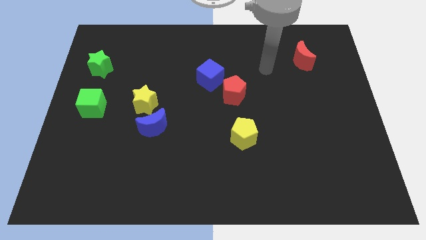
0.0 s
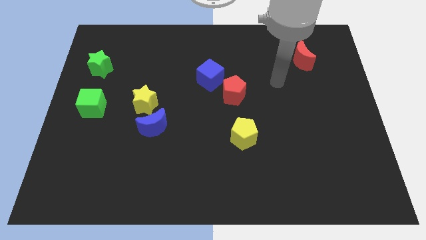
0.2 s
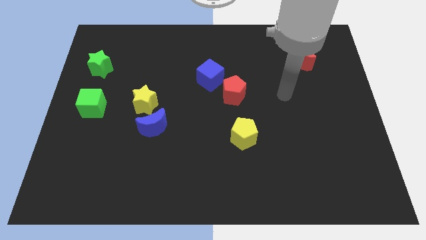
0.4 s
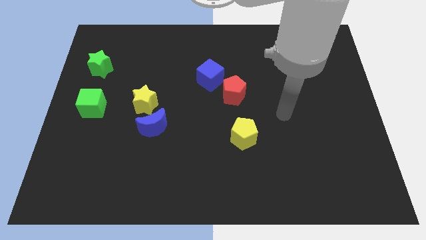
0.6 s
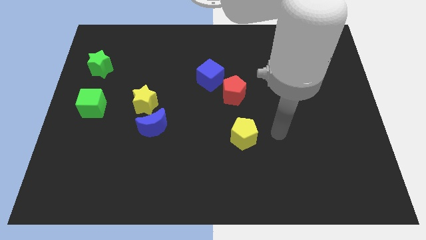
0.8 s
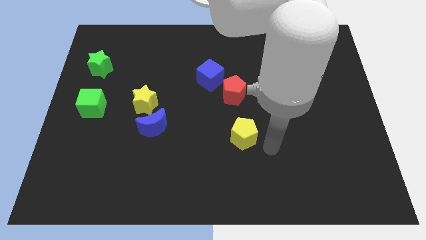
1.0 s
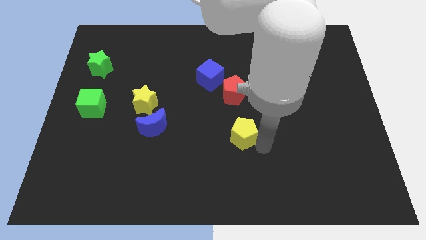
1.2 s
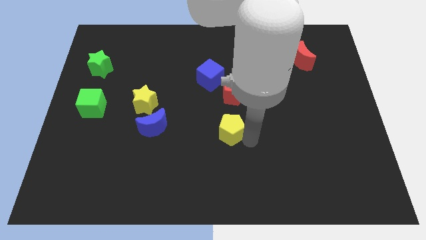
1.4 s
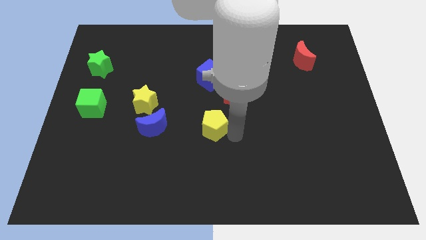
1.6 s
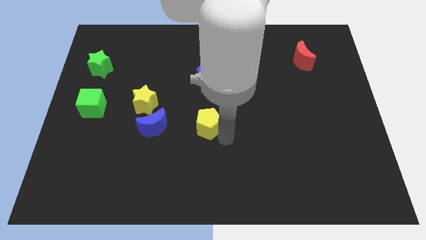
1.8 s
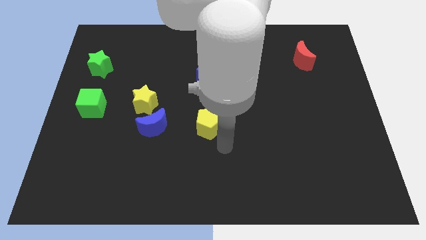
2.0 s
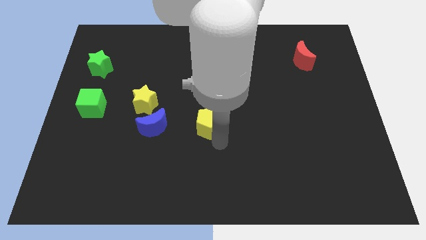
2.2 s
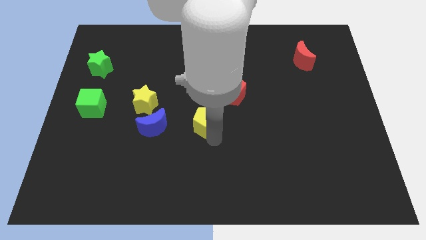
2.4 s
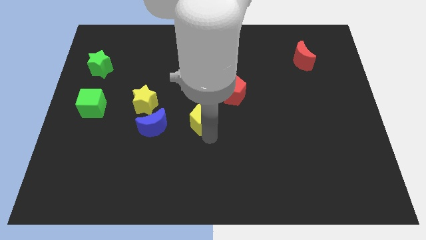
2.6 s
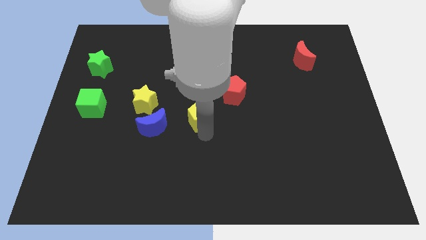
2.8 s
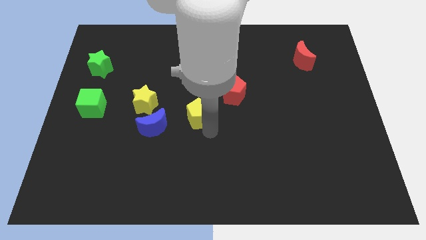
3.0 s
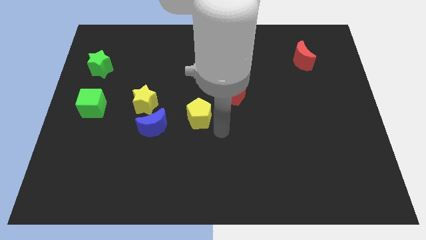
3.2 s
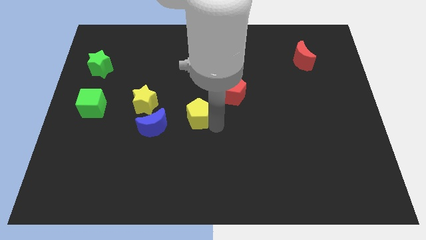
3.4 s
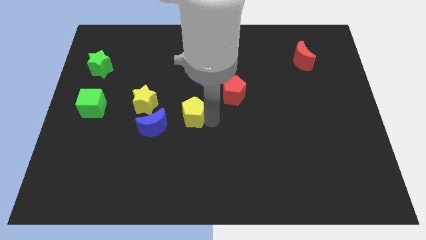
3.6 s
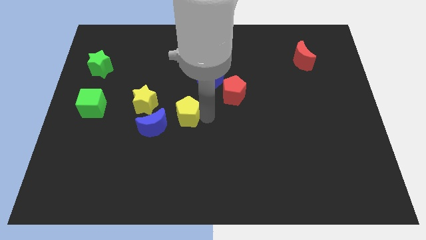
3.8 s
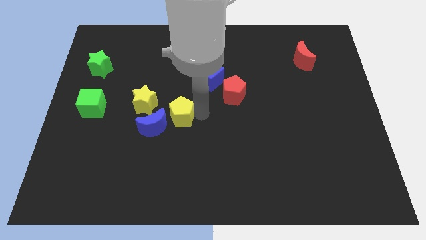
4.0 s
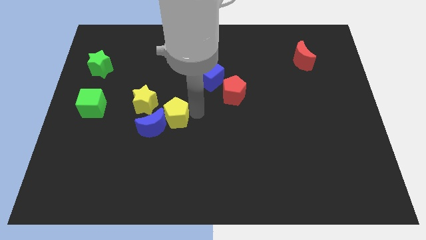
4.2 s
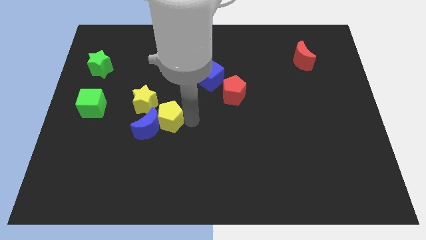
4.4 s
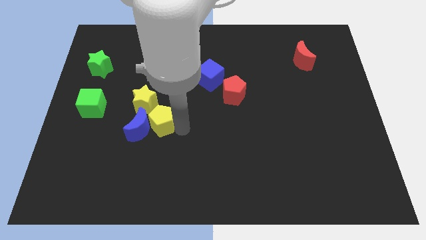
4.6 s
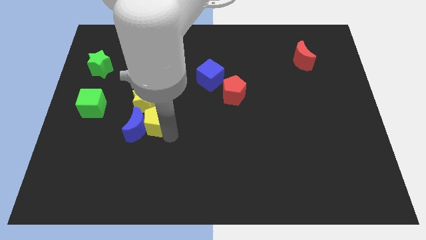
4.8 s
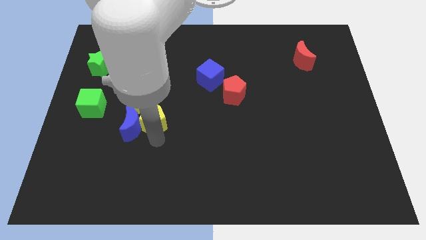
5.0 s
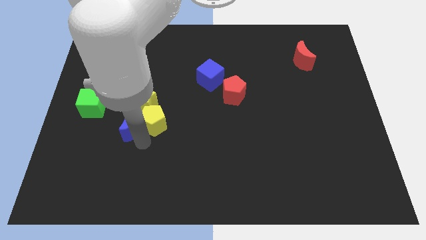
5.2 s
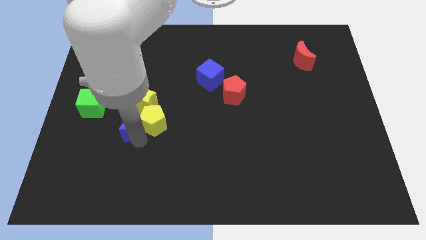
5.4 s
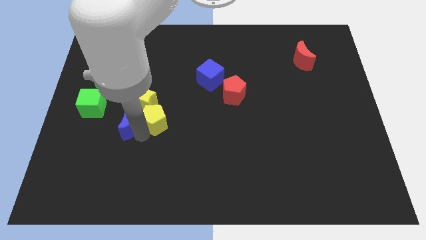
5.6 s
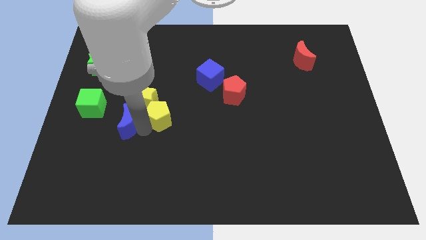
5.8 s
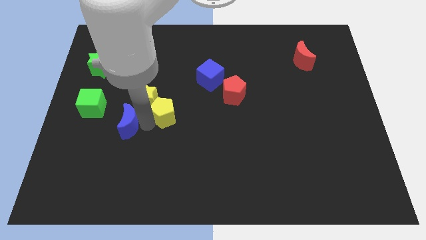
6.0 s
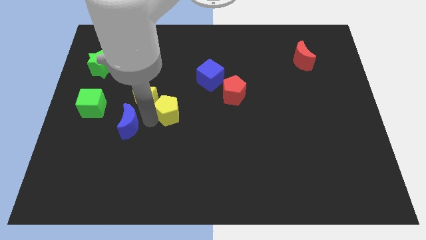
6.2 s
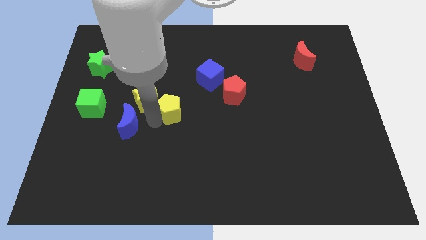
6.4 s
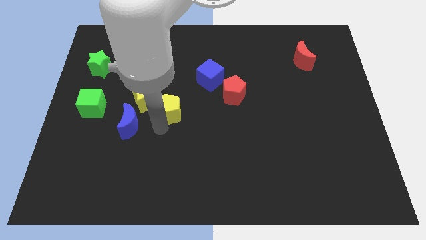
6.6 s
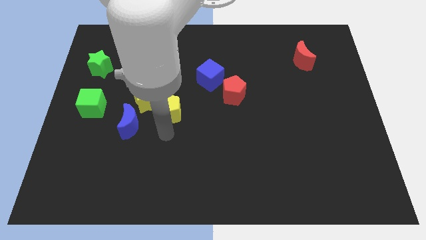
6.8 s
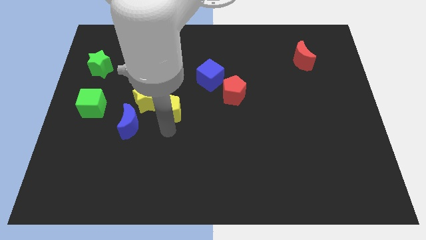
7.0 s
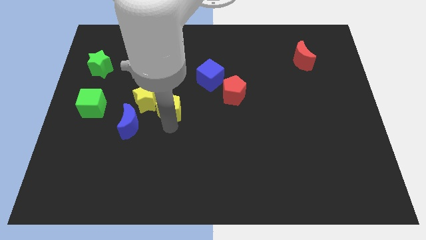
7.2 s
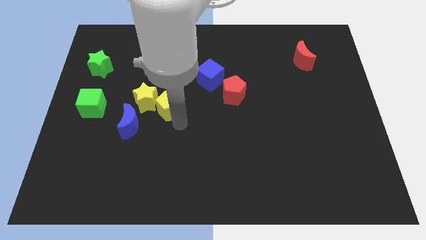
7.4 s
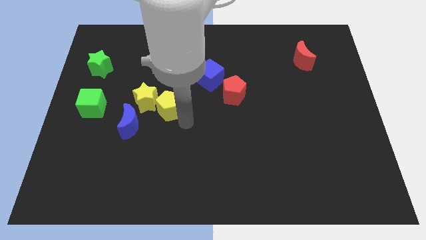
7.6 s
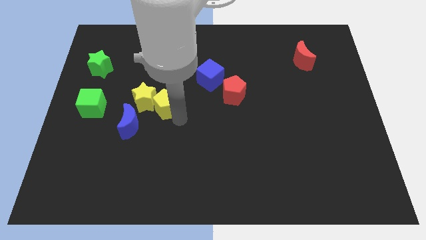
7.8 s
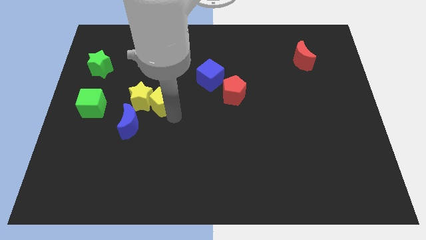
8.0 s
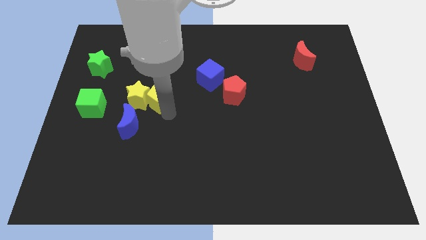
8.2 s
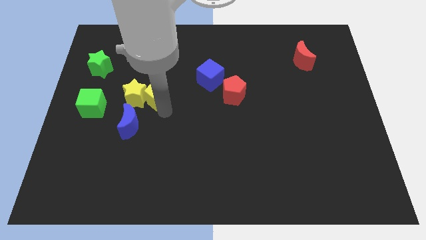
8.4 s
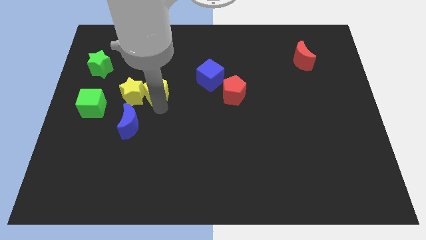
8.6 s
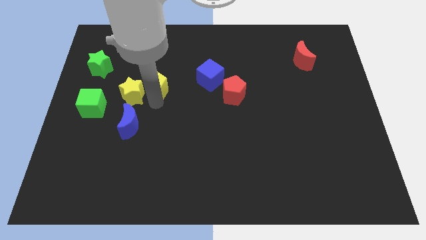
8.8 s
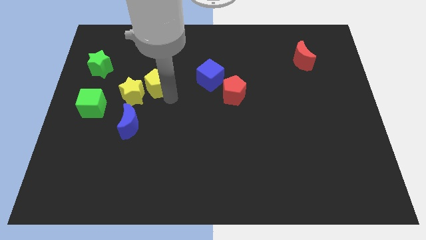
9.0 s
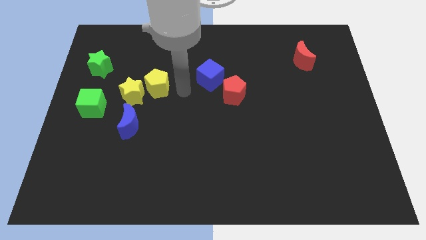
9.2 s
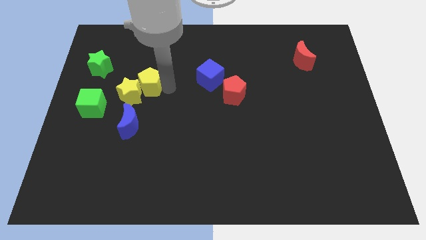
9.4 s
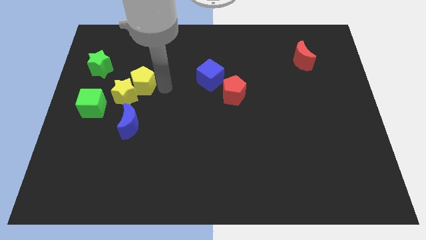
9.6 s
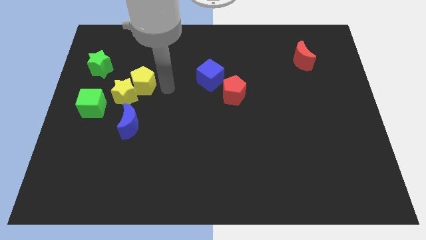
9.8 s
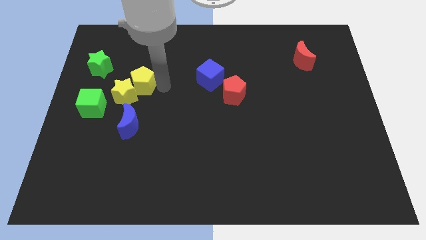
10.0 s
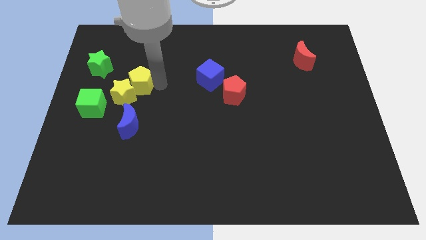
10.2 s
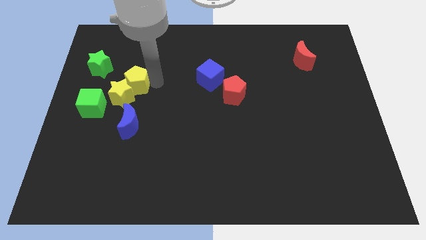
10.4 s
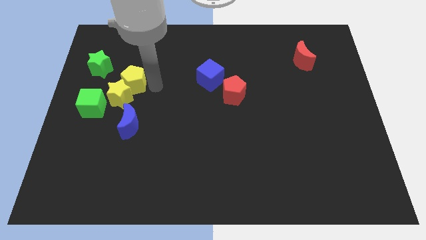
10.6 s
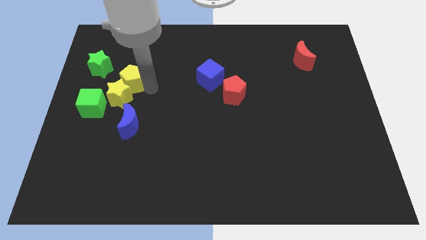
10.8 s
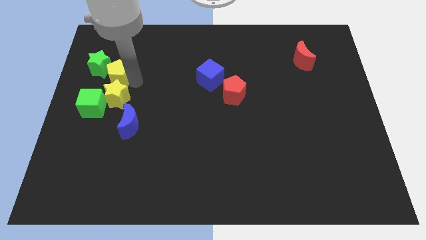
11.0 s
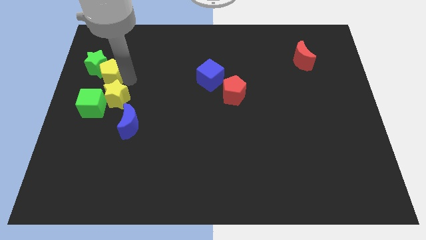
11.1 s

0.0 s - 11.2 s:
put the yellow pentagon next to the green star

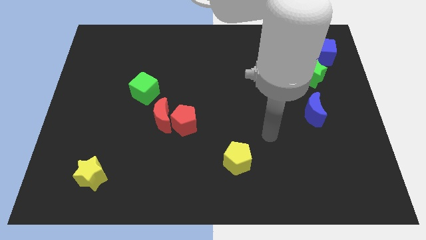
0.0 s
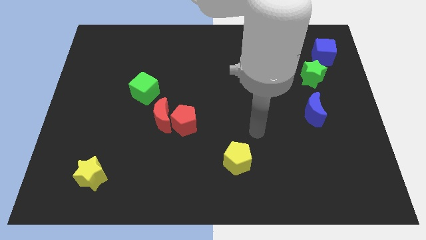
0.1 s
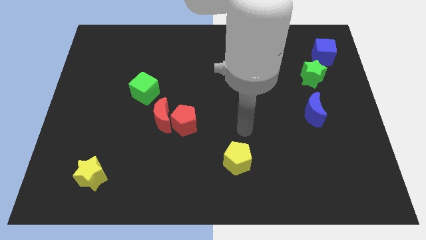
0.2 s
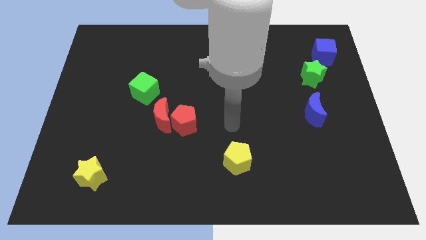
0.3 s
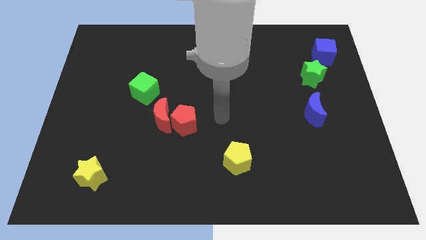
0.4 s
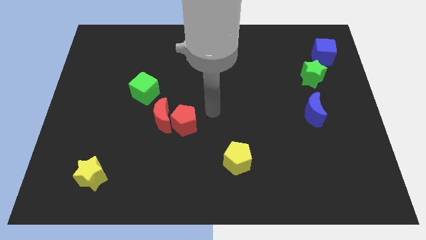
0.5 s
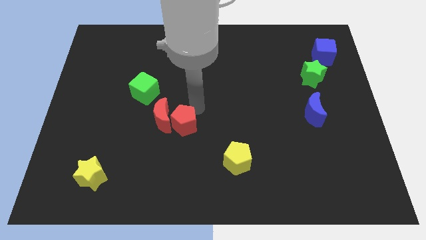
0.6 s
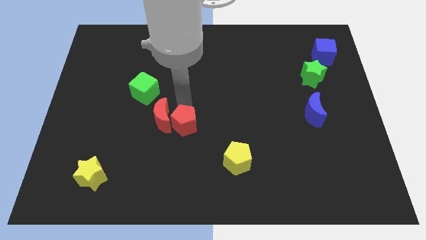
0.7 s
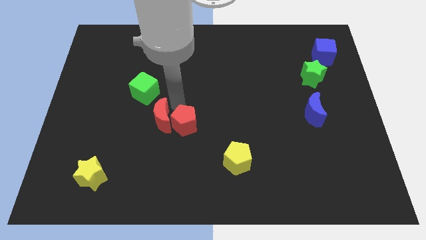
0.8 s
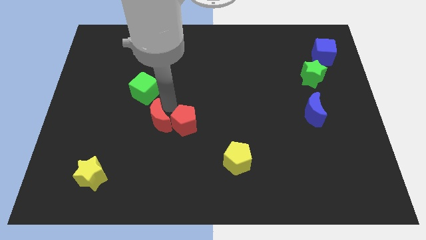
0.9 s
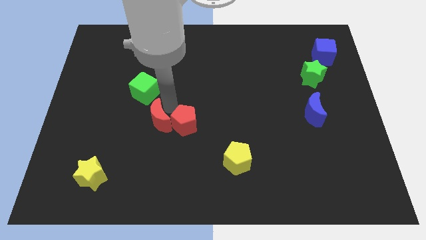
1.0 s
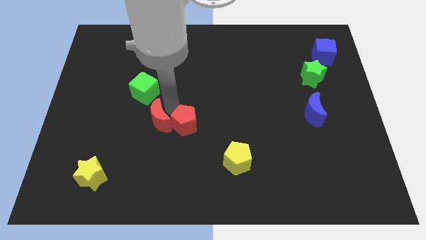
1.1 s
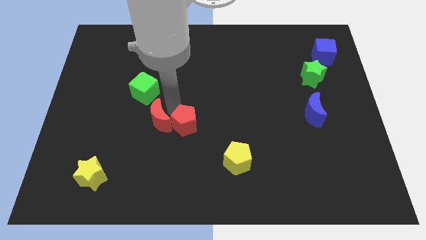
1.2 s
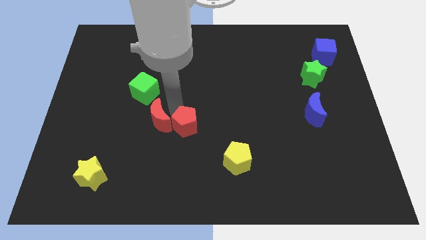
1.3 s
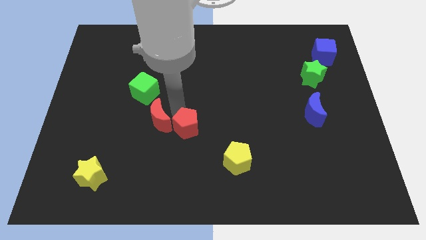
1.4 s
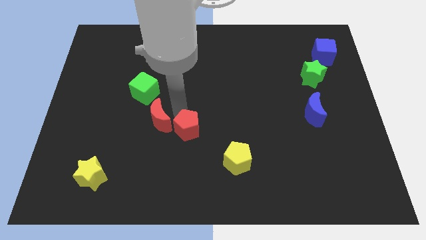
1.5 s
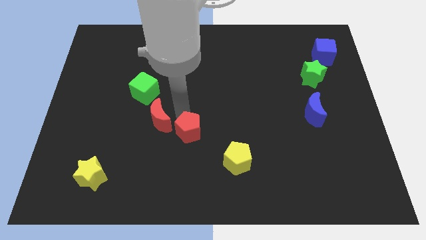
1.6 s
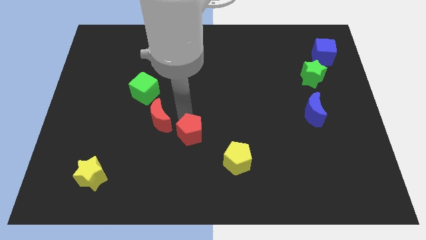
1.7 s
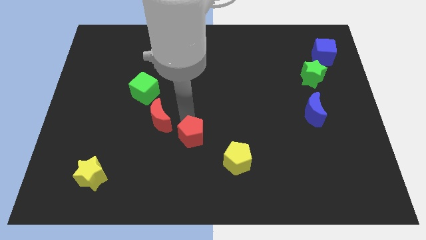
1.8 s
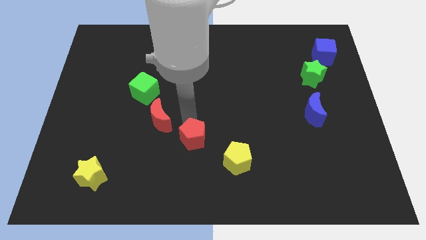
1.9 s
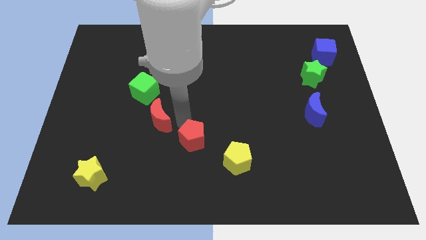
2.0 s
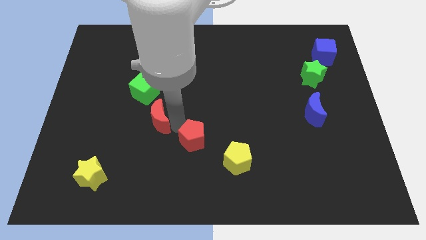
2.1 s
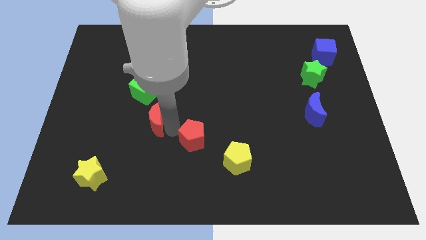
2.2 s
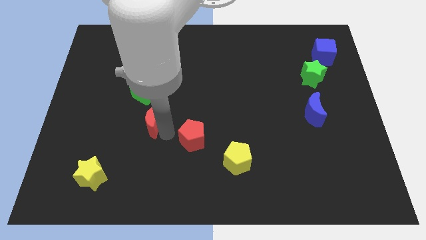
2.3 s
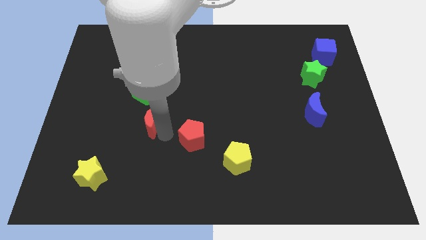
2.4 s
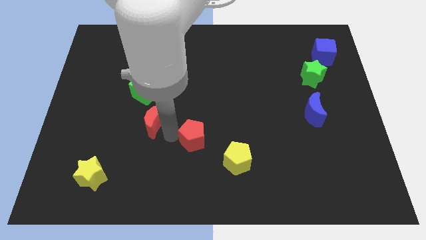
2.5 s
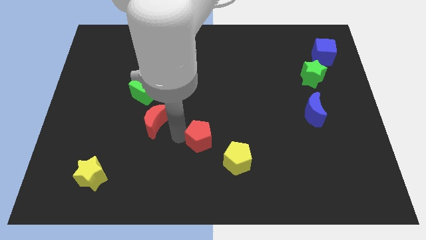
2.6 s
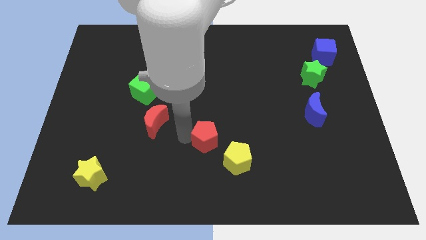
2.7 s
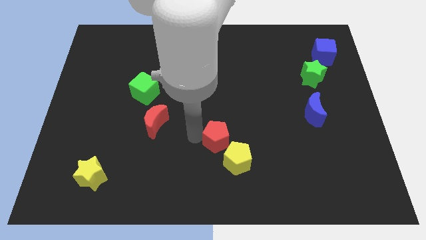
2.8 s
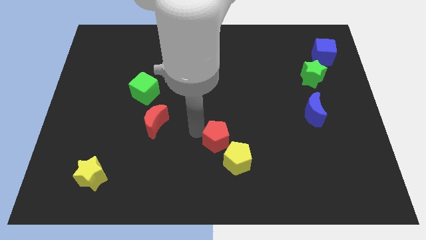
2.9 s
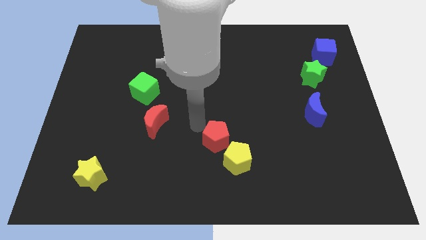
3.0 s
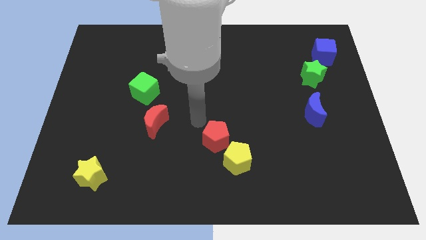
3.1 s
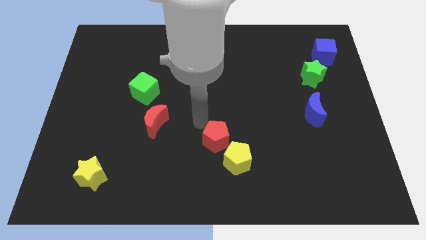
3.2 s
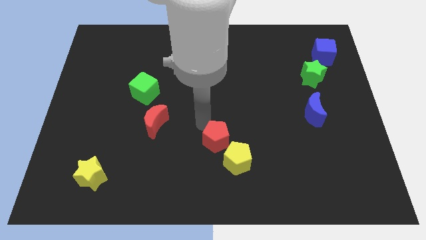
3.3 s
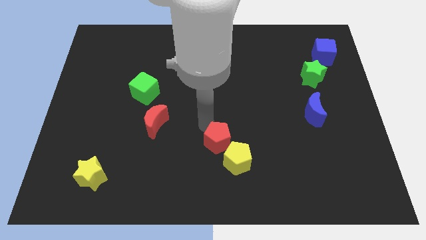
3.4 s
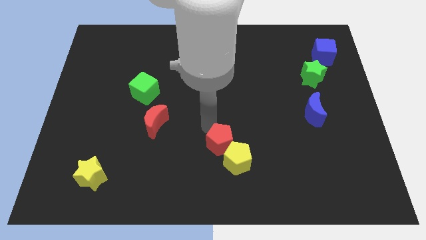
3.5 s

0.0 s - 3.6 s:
put the red pentagon close to the yellow pentagon
